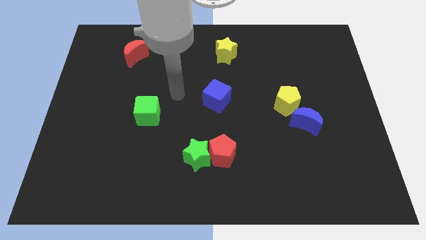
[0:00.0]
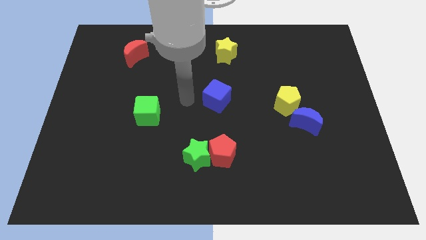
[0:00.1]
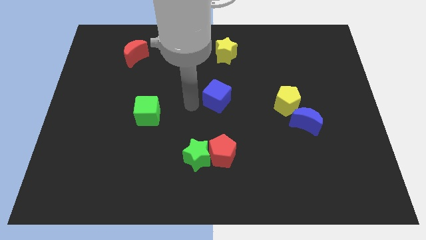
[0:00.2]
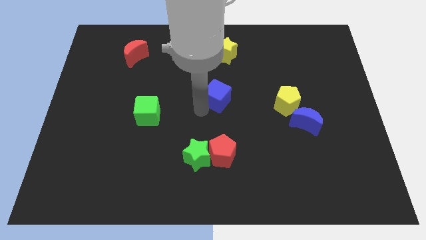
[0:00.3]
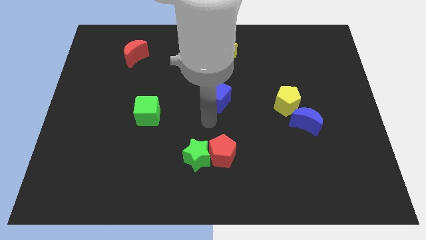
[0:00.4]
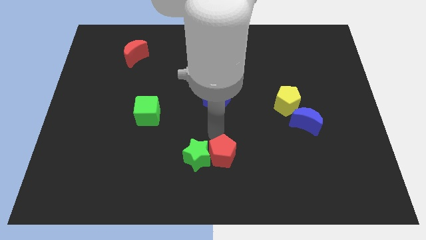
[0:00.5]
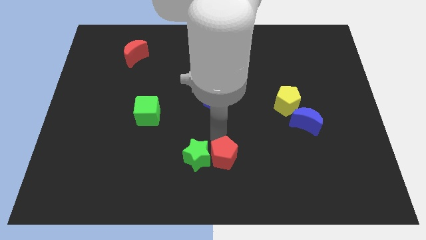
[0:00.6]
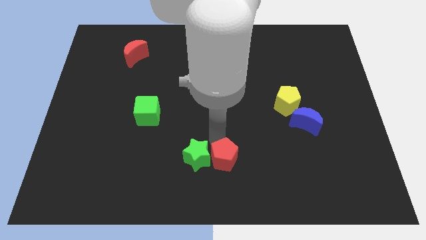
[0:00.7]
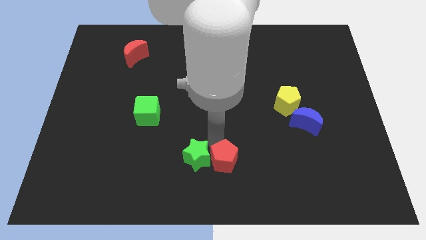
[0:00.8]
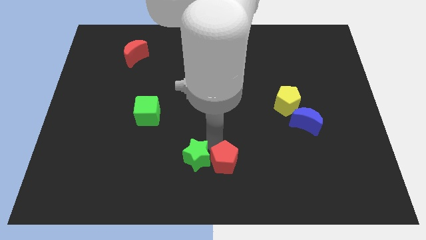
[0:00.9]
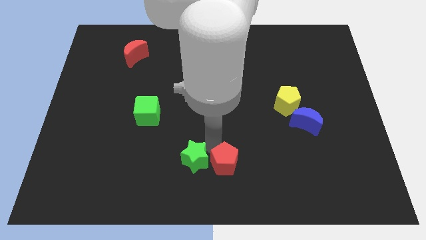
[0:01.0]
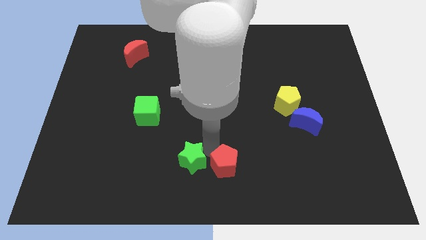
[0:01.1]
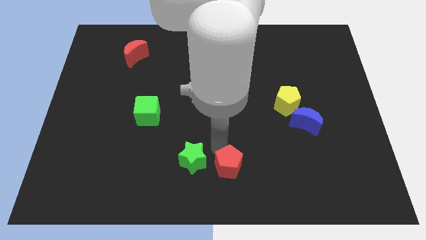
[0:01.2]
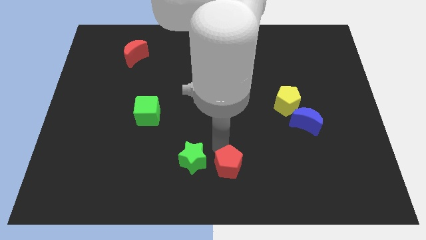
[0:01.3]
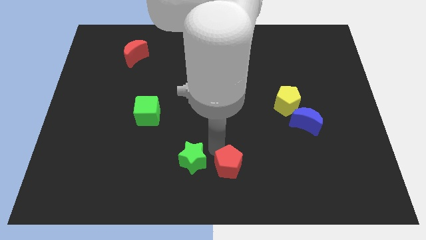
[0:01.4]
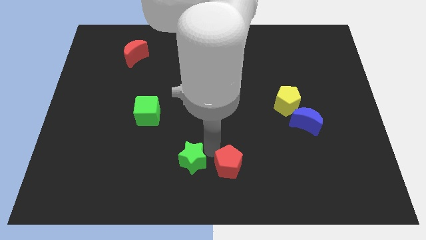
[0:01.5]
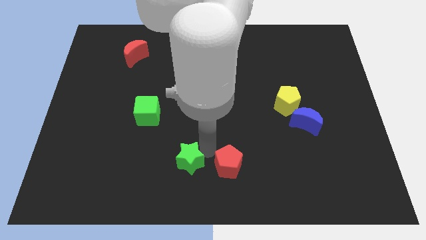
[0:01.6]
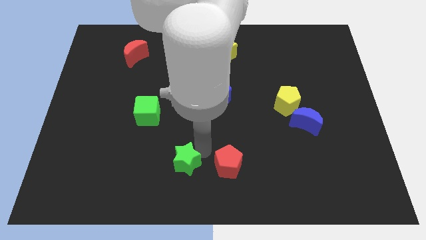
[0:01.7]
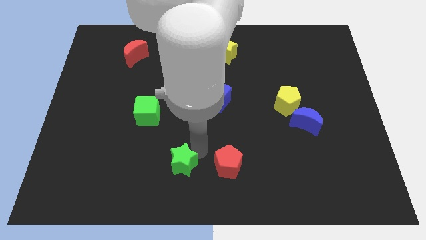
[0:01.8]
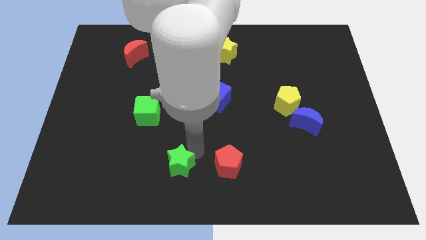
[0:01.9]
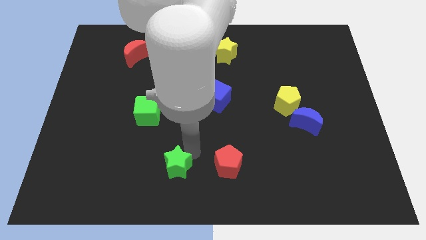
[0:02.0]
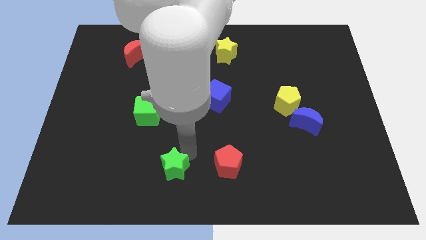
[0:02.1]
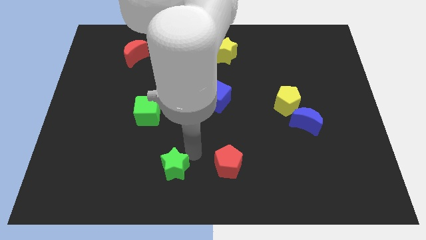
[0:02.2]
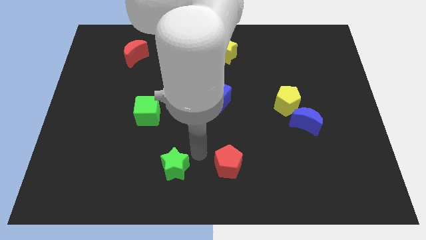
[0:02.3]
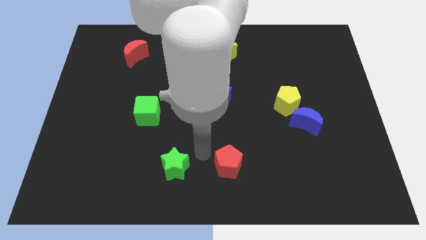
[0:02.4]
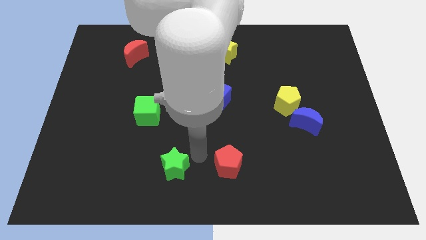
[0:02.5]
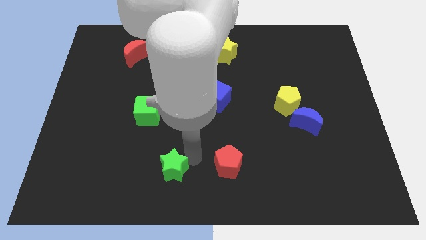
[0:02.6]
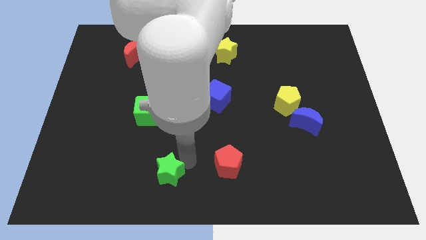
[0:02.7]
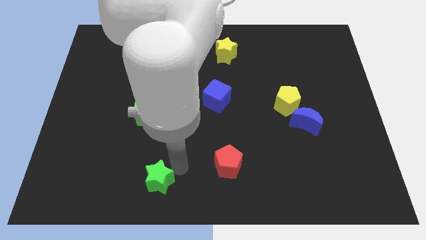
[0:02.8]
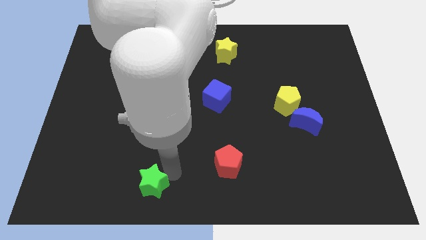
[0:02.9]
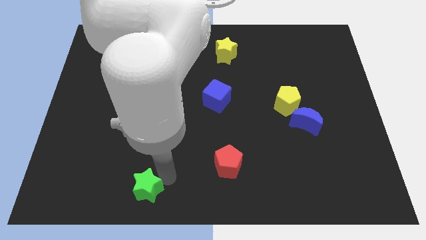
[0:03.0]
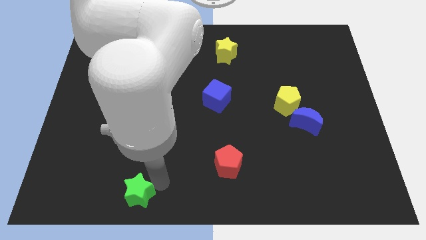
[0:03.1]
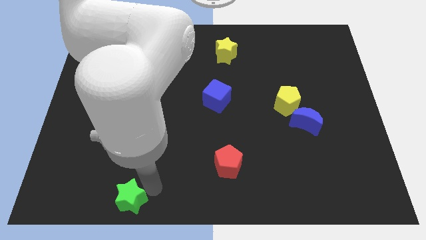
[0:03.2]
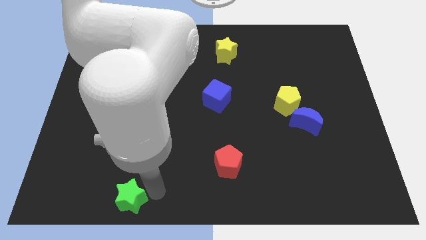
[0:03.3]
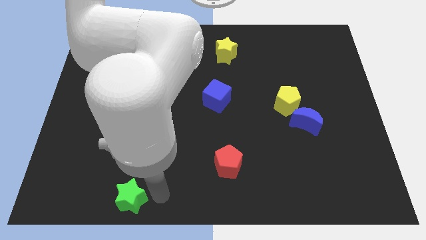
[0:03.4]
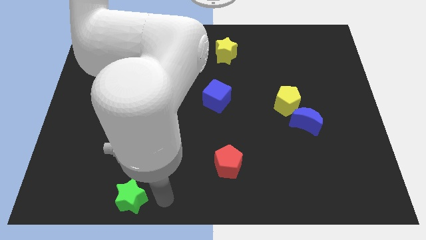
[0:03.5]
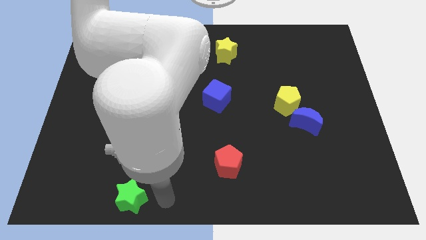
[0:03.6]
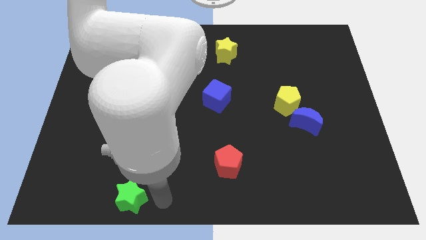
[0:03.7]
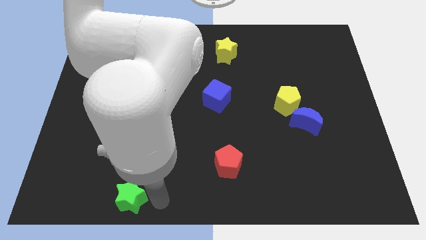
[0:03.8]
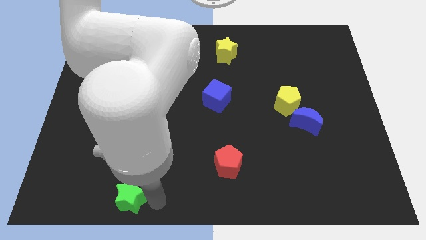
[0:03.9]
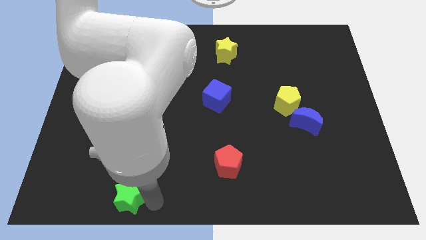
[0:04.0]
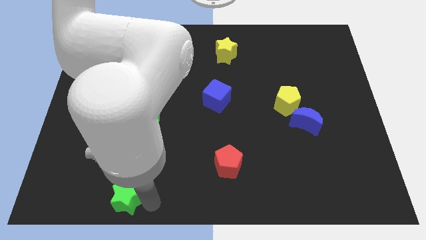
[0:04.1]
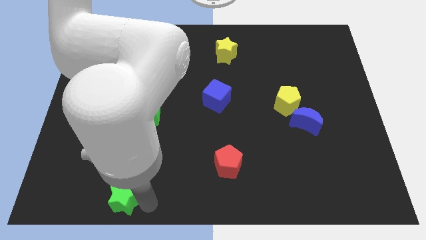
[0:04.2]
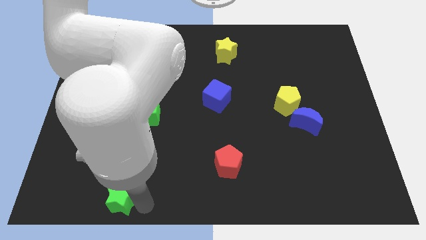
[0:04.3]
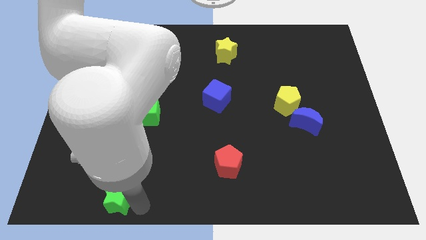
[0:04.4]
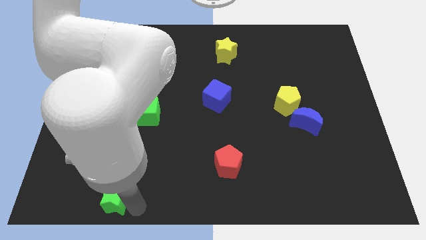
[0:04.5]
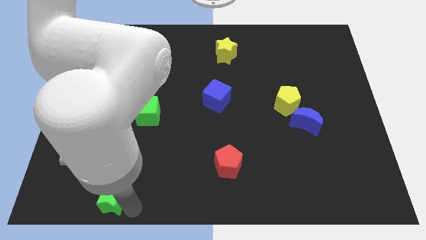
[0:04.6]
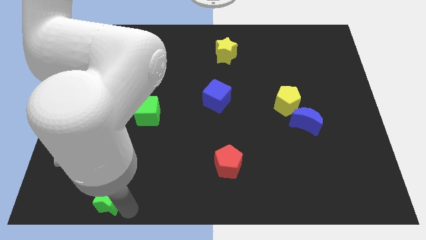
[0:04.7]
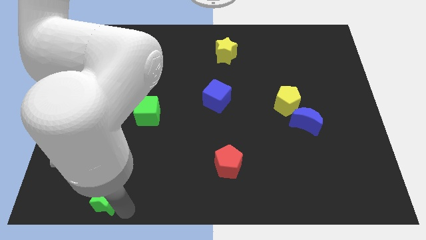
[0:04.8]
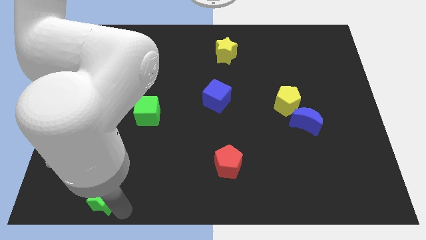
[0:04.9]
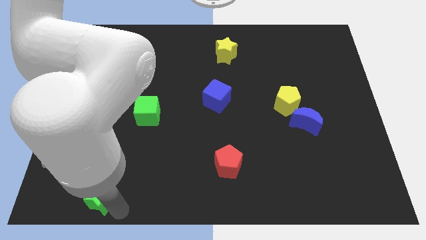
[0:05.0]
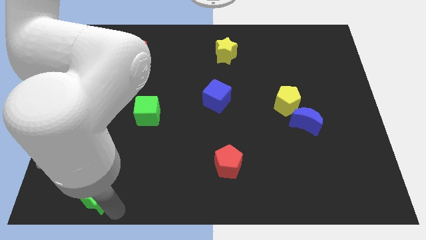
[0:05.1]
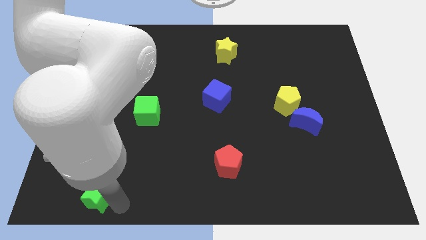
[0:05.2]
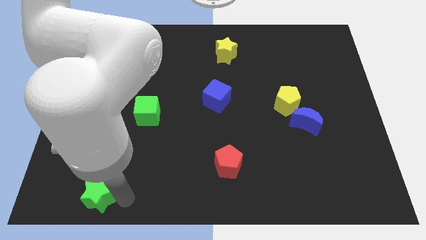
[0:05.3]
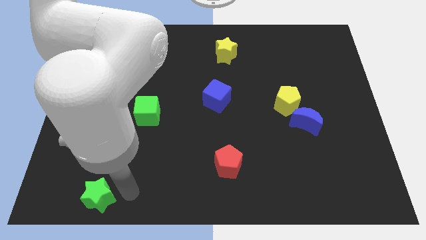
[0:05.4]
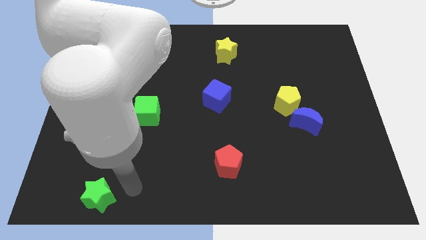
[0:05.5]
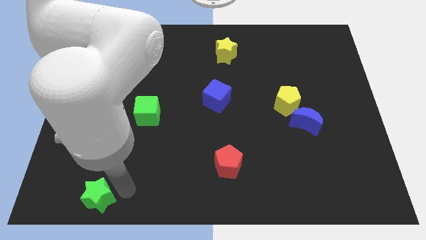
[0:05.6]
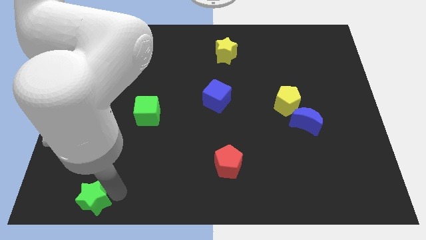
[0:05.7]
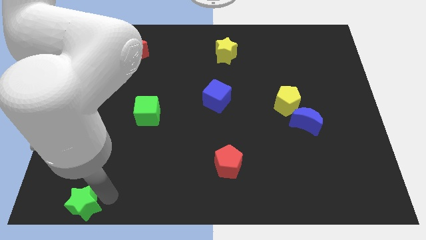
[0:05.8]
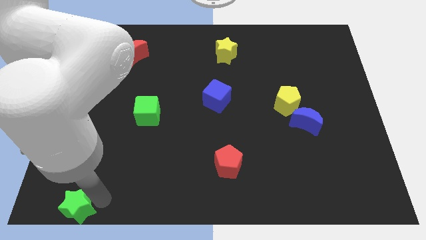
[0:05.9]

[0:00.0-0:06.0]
slide the green star to the bottom left of the board
